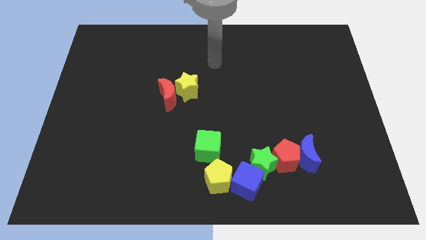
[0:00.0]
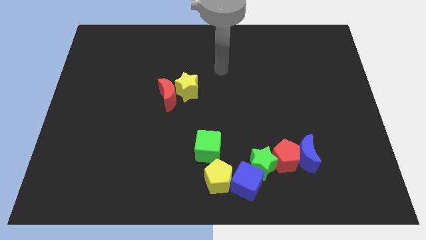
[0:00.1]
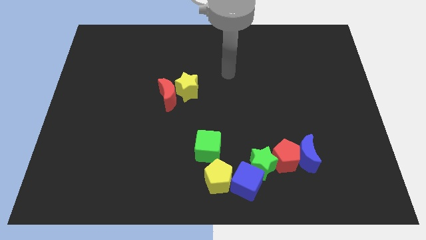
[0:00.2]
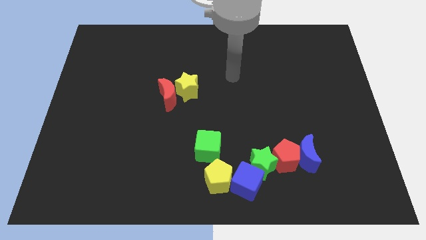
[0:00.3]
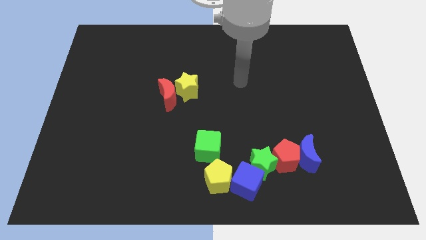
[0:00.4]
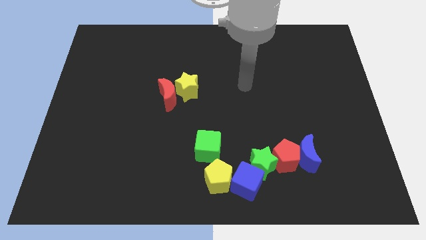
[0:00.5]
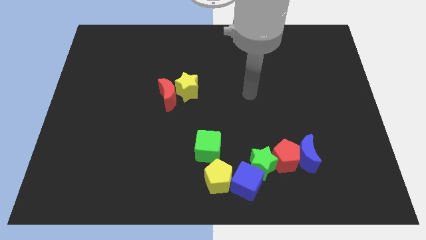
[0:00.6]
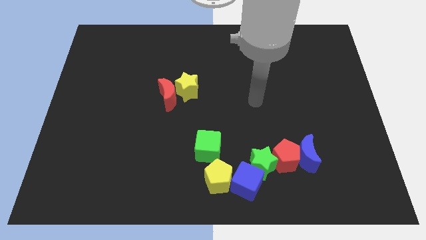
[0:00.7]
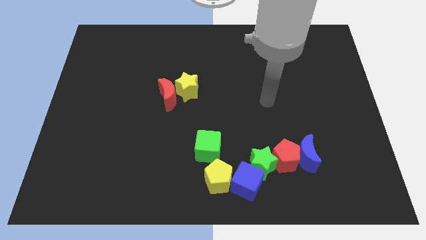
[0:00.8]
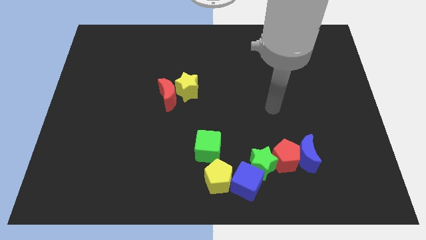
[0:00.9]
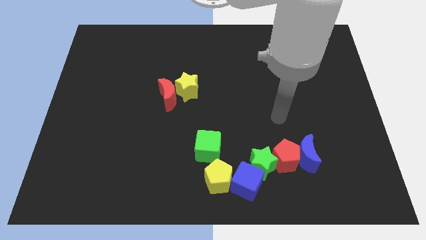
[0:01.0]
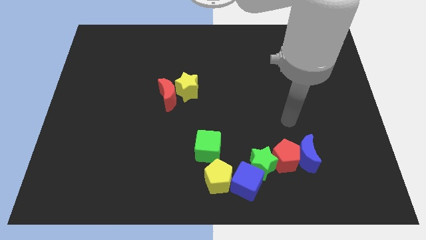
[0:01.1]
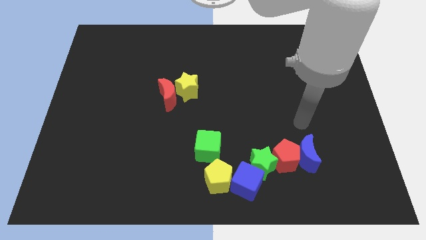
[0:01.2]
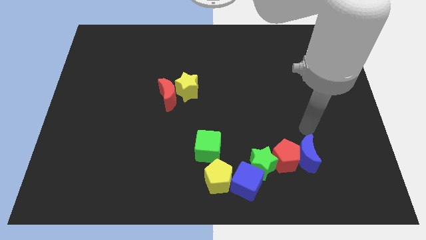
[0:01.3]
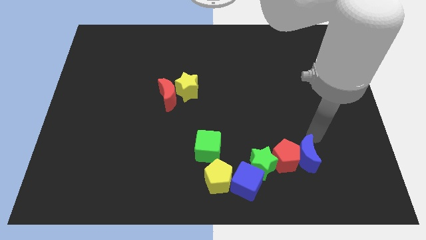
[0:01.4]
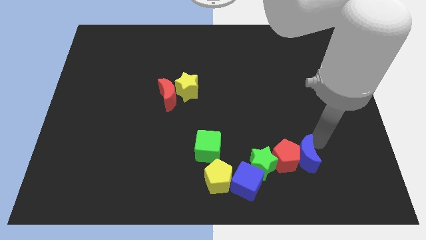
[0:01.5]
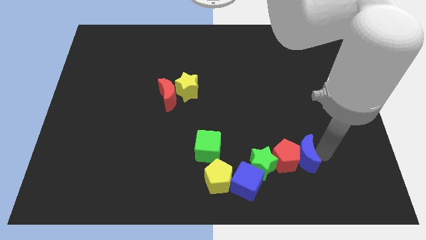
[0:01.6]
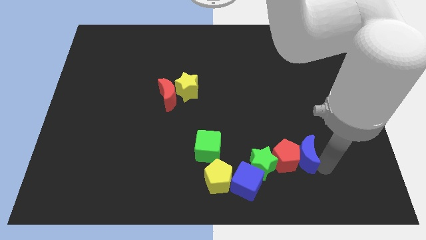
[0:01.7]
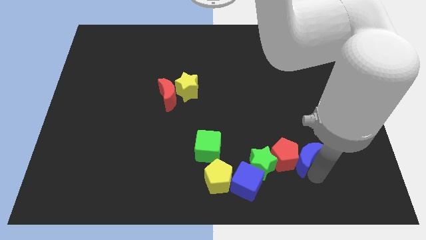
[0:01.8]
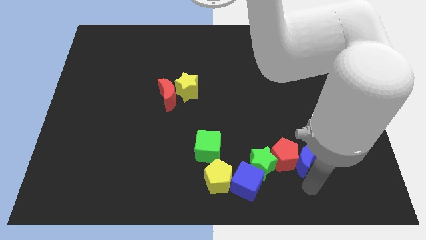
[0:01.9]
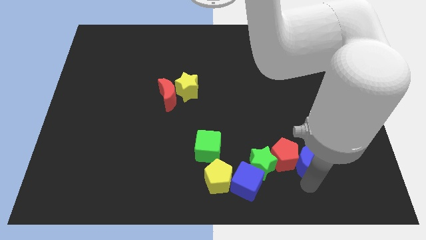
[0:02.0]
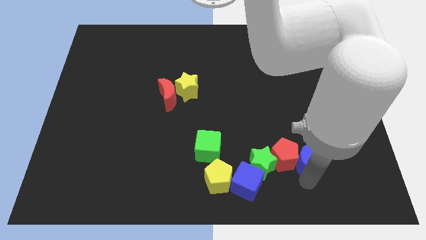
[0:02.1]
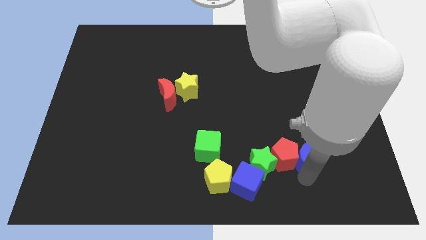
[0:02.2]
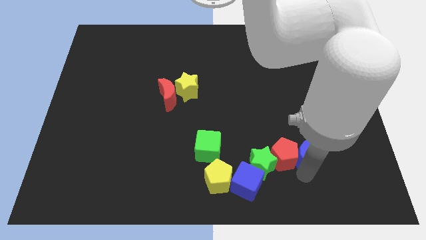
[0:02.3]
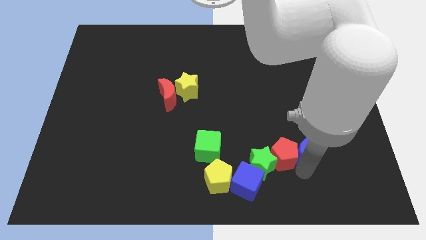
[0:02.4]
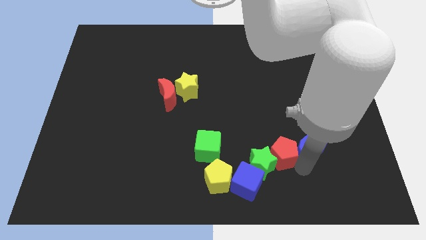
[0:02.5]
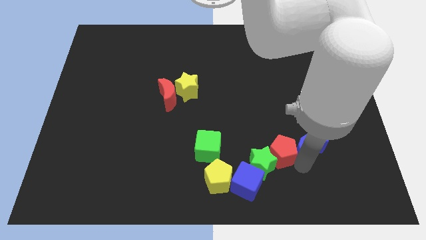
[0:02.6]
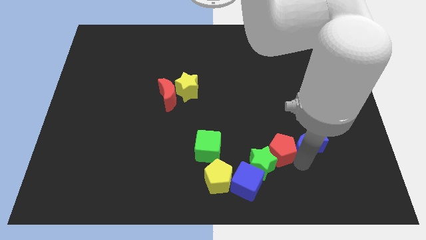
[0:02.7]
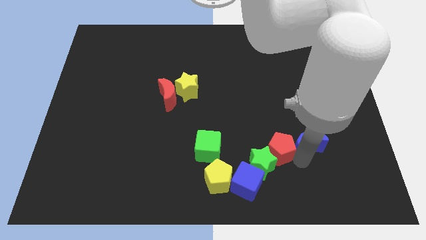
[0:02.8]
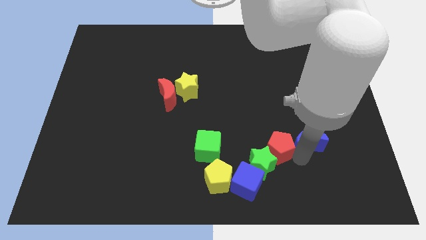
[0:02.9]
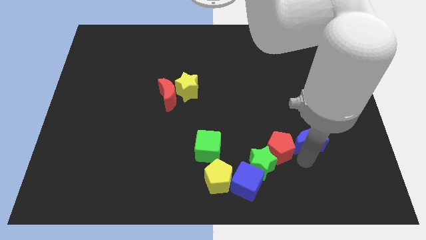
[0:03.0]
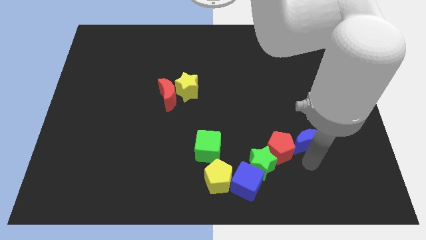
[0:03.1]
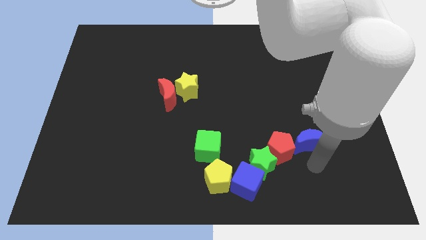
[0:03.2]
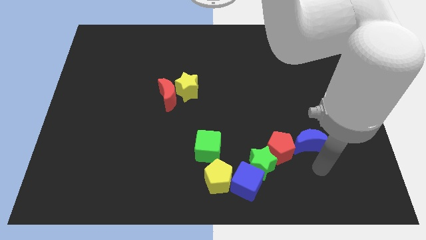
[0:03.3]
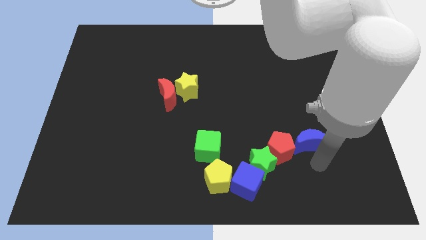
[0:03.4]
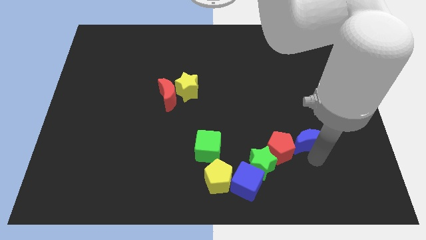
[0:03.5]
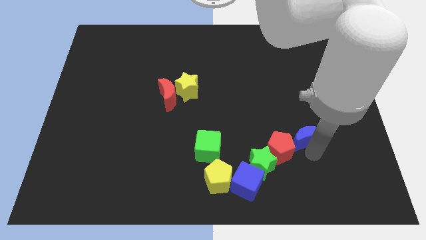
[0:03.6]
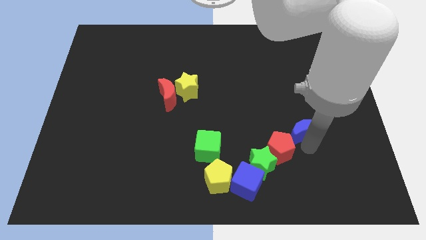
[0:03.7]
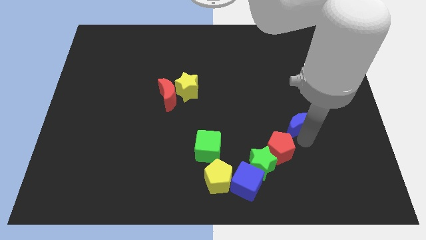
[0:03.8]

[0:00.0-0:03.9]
slightly move the blue moon up

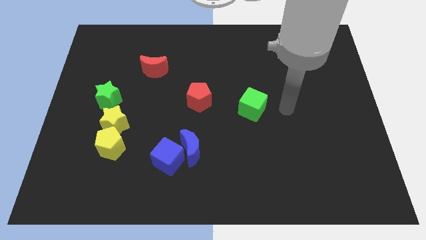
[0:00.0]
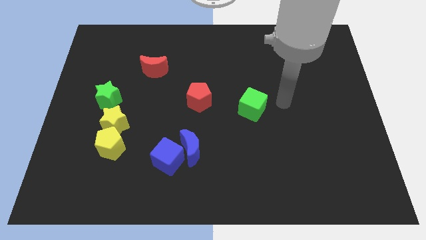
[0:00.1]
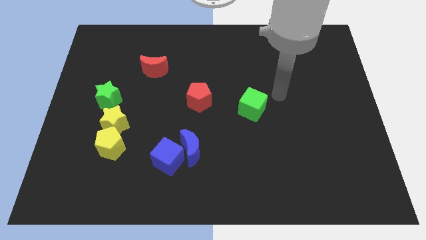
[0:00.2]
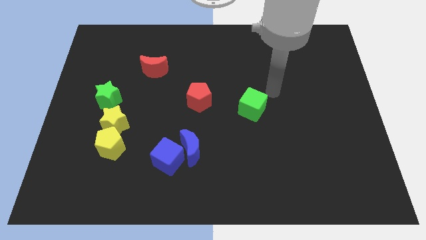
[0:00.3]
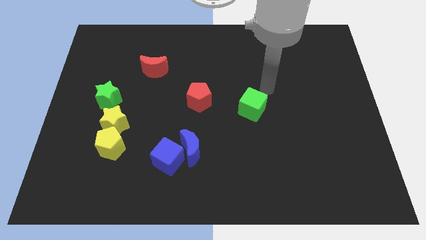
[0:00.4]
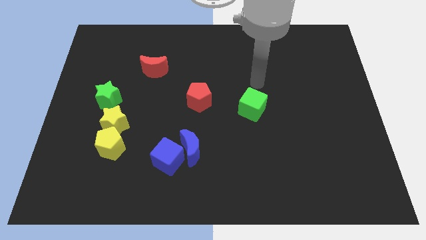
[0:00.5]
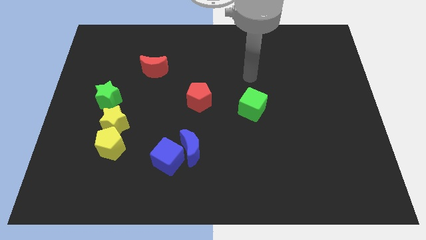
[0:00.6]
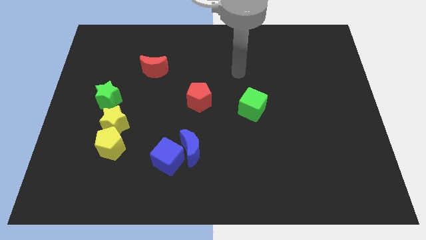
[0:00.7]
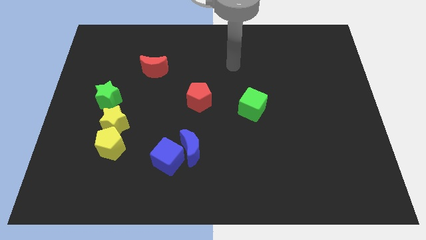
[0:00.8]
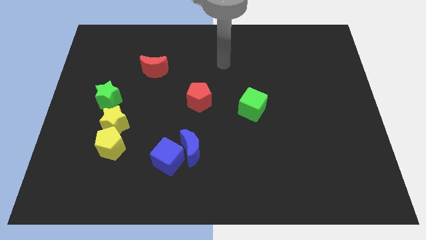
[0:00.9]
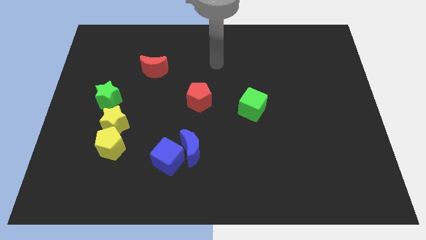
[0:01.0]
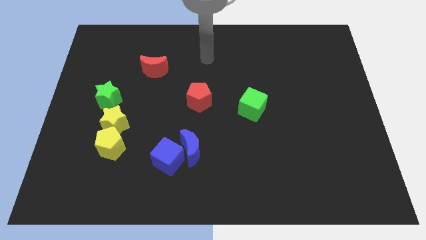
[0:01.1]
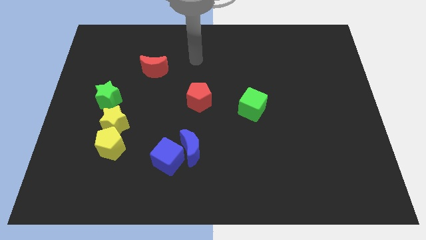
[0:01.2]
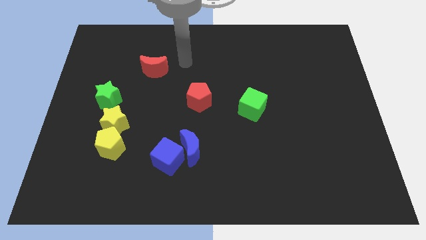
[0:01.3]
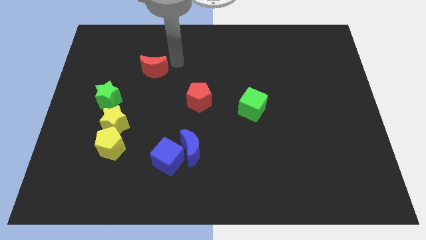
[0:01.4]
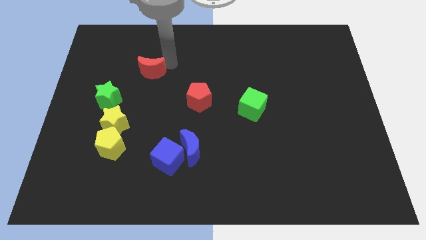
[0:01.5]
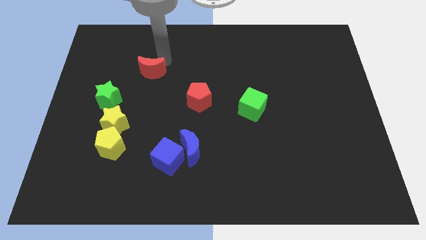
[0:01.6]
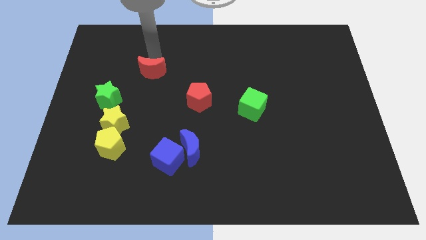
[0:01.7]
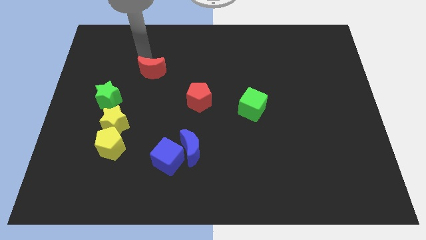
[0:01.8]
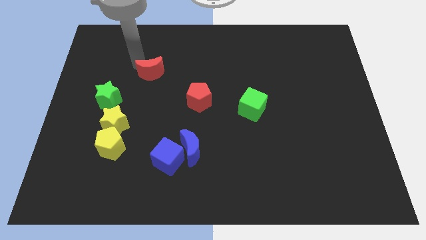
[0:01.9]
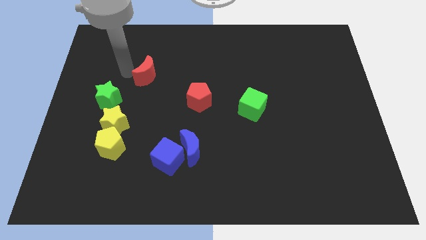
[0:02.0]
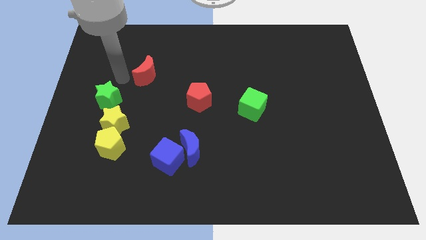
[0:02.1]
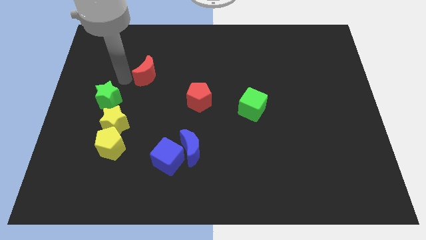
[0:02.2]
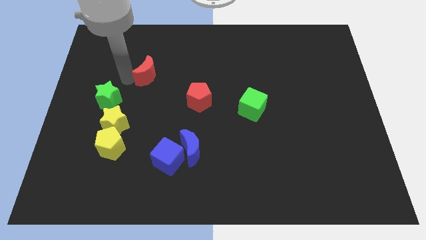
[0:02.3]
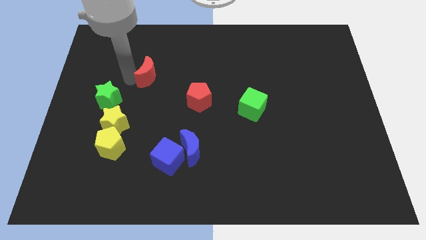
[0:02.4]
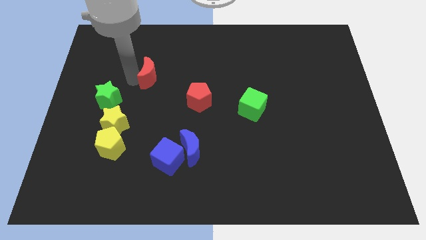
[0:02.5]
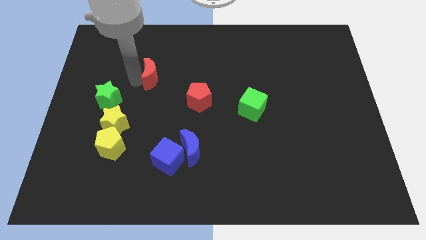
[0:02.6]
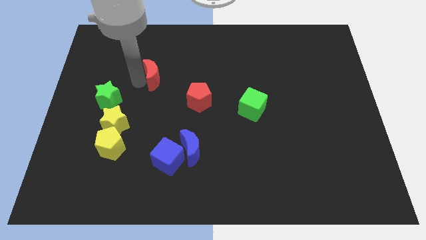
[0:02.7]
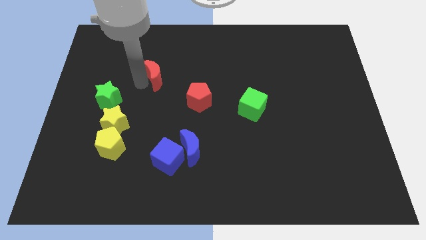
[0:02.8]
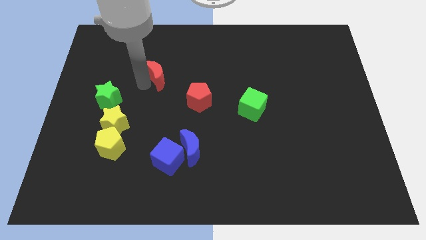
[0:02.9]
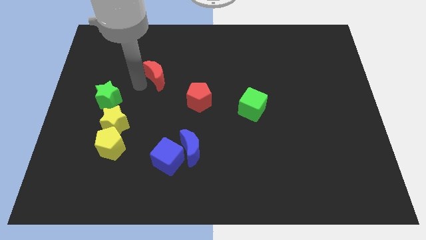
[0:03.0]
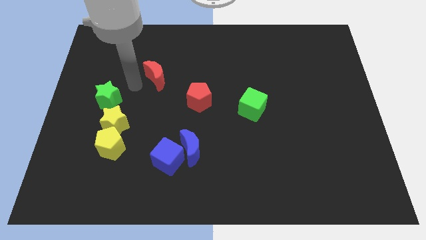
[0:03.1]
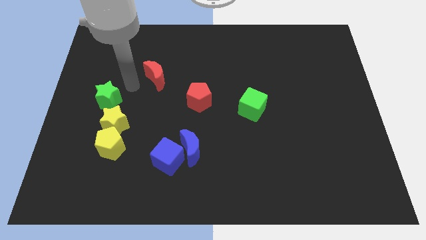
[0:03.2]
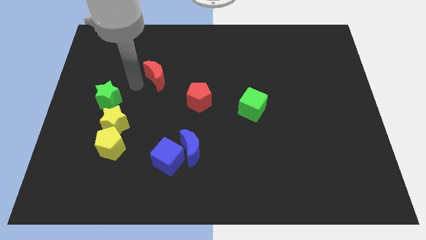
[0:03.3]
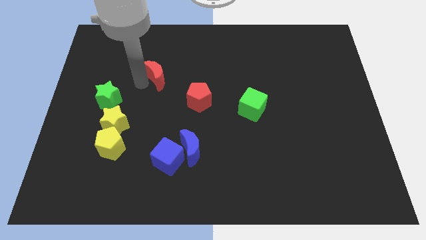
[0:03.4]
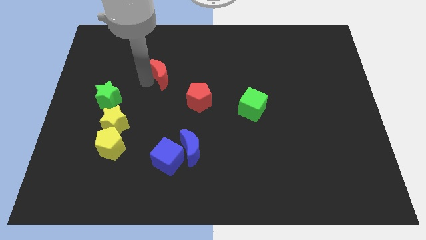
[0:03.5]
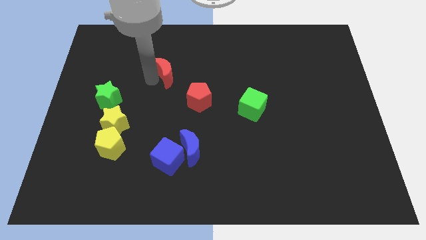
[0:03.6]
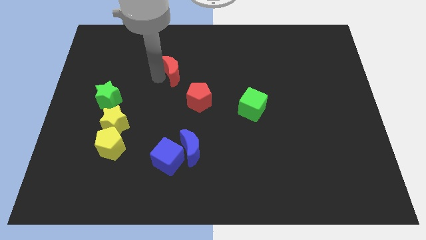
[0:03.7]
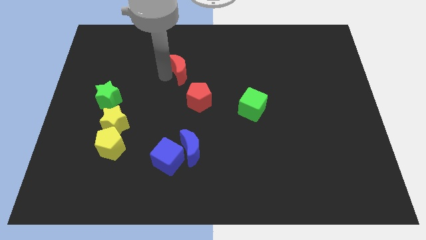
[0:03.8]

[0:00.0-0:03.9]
move the red moon a bit right

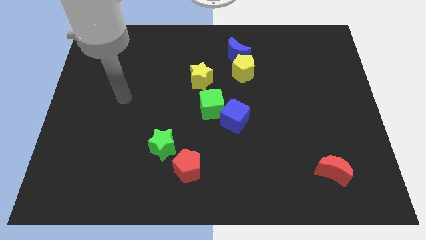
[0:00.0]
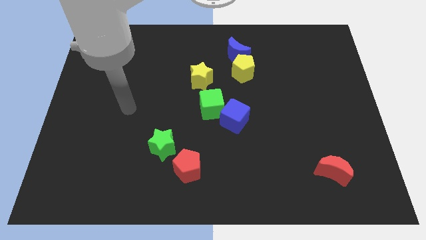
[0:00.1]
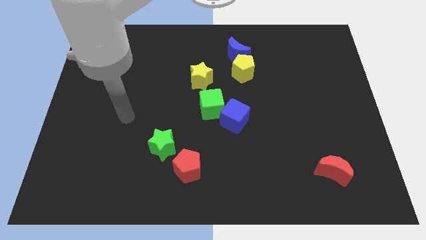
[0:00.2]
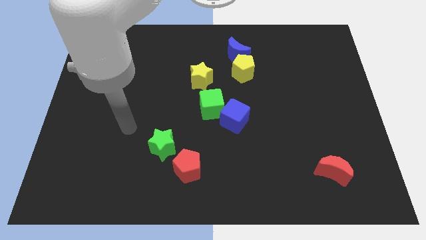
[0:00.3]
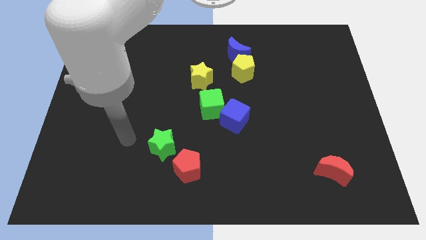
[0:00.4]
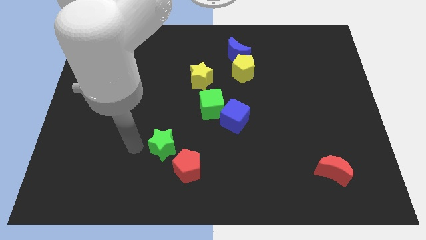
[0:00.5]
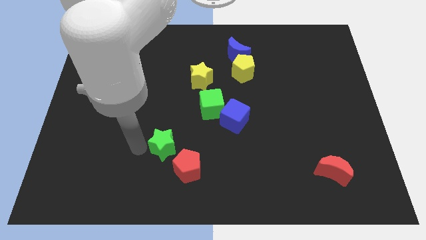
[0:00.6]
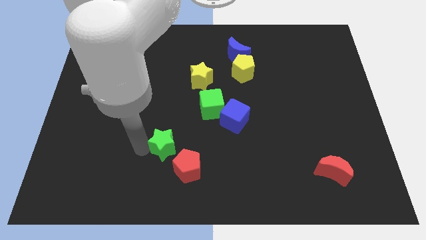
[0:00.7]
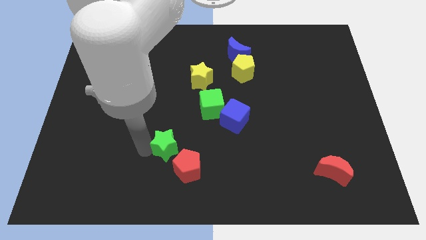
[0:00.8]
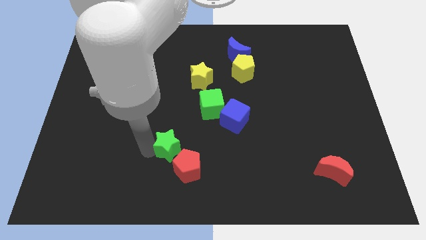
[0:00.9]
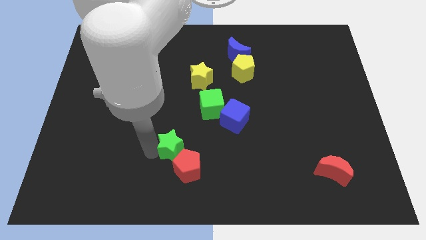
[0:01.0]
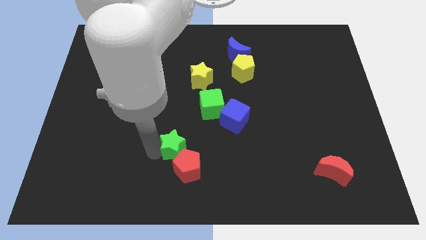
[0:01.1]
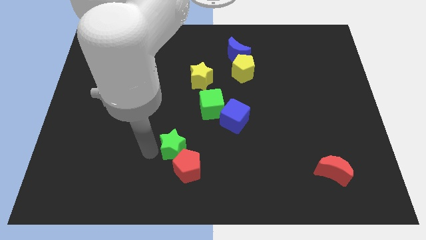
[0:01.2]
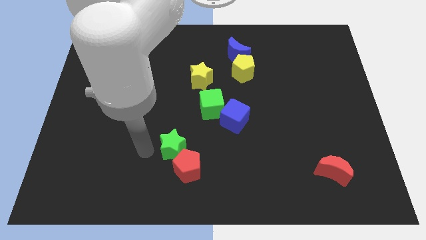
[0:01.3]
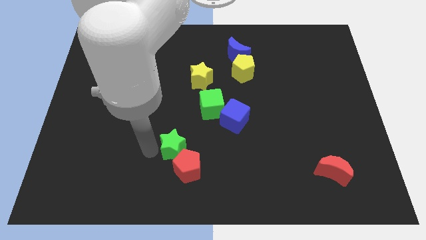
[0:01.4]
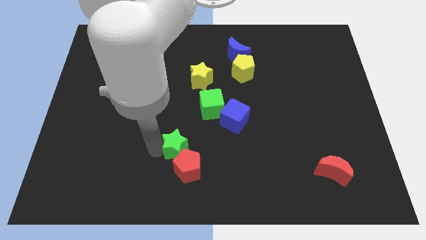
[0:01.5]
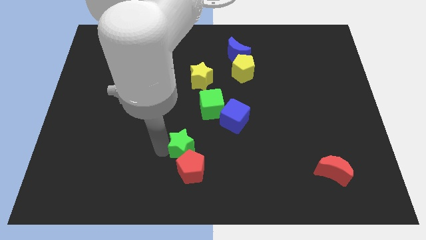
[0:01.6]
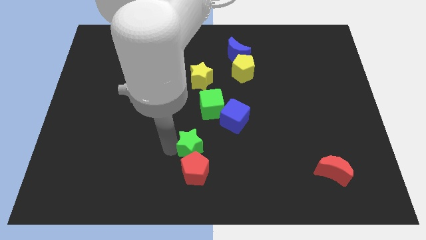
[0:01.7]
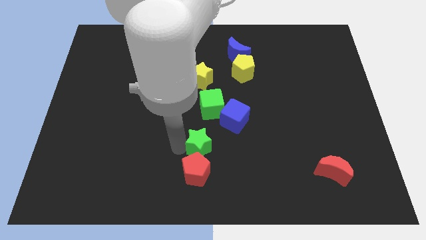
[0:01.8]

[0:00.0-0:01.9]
slightly push the green star to the right
